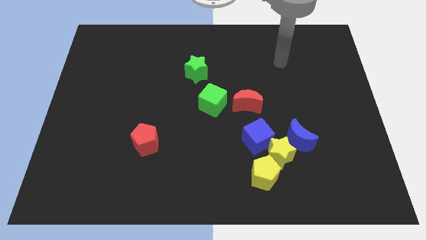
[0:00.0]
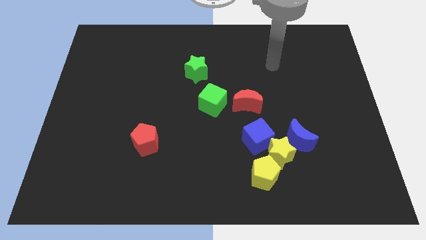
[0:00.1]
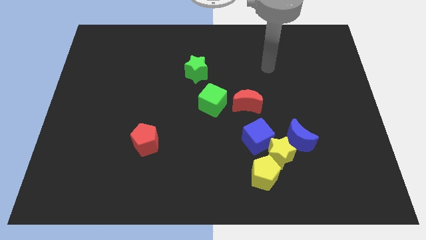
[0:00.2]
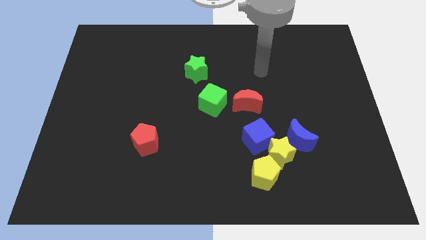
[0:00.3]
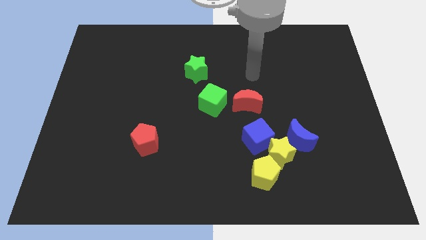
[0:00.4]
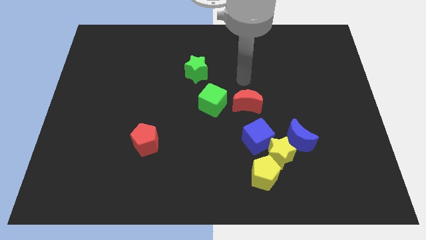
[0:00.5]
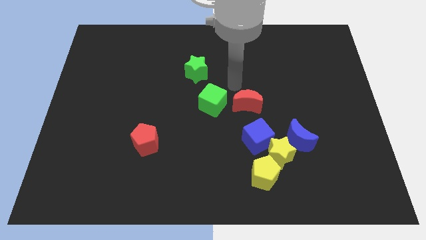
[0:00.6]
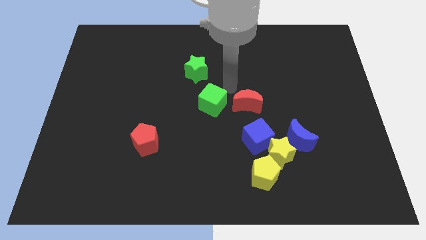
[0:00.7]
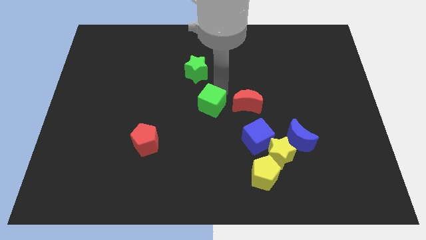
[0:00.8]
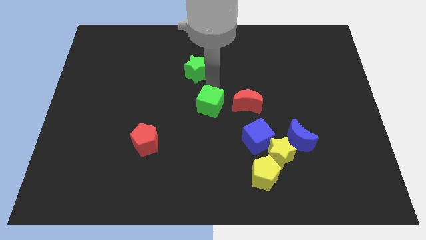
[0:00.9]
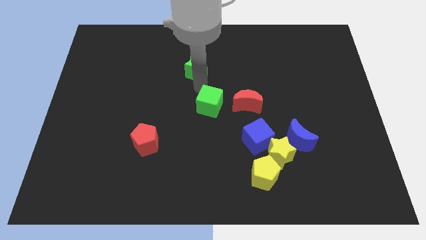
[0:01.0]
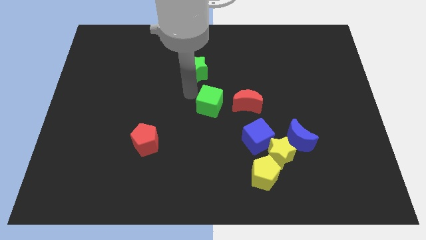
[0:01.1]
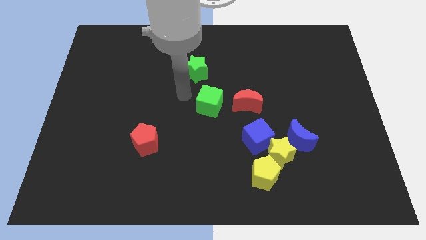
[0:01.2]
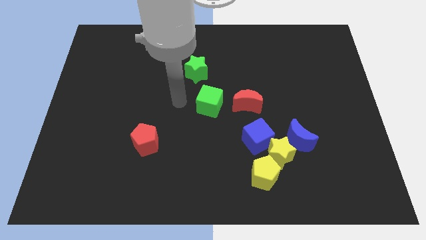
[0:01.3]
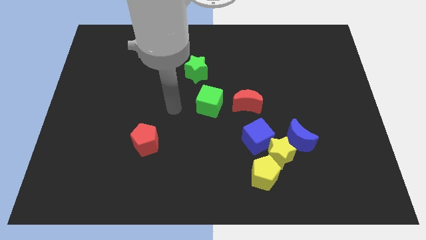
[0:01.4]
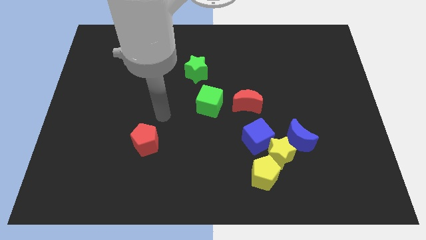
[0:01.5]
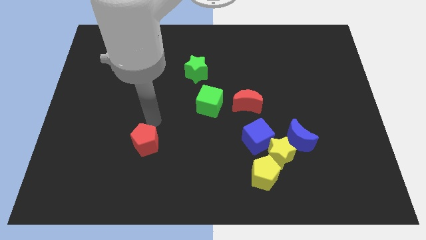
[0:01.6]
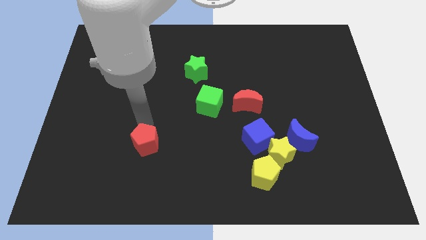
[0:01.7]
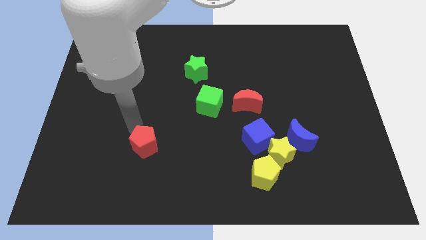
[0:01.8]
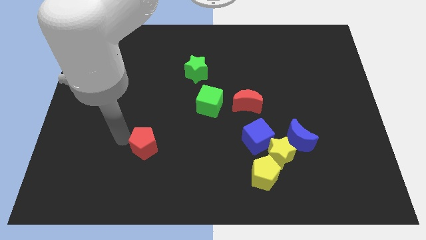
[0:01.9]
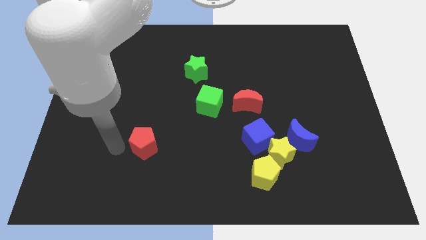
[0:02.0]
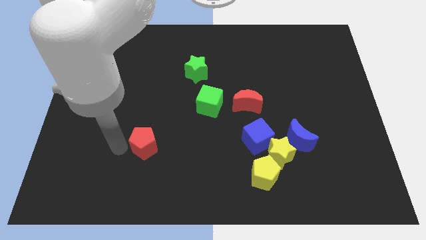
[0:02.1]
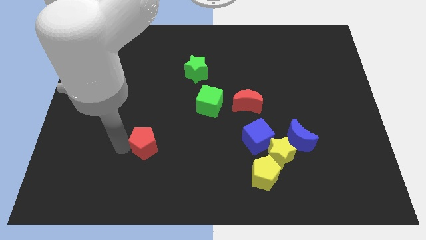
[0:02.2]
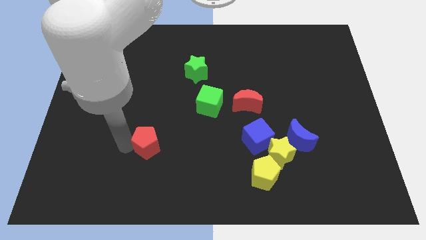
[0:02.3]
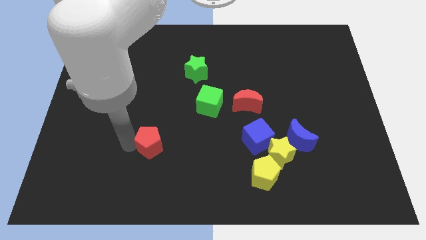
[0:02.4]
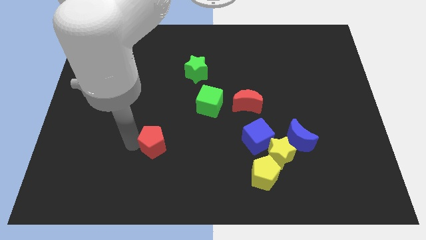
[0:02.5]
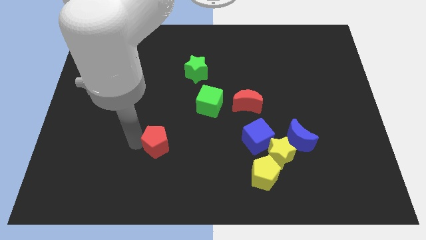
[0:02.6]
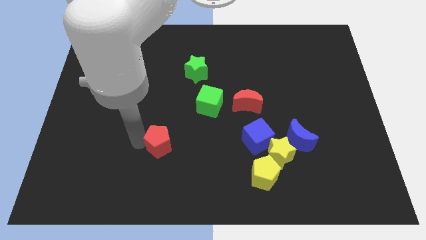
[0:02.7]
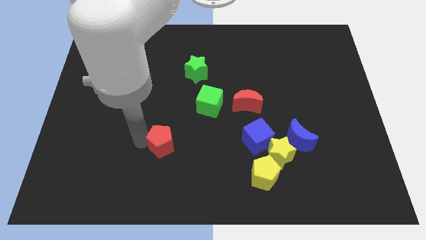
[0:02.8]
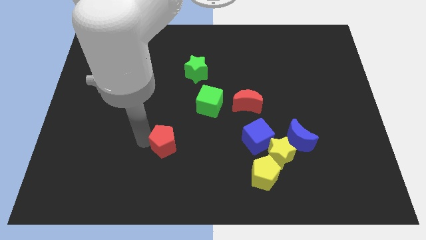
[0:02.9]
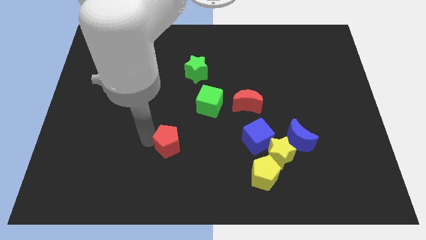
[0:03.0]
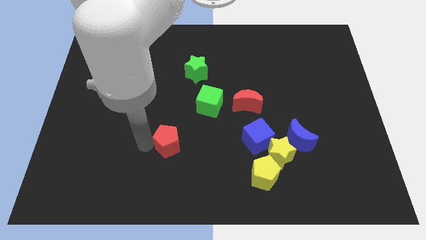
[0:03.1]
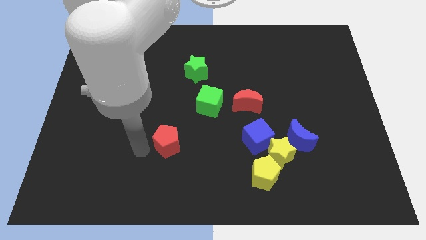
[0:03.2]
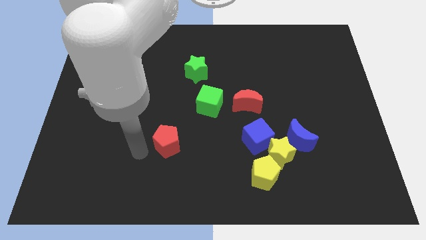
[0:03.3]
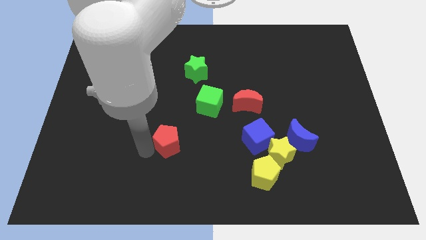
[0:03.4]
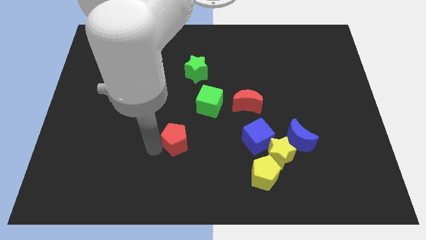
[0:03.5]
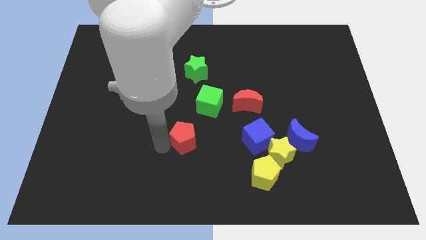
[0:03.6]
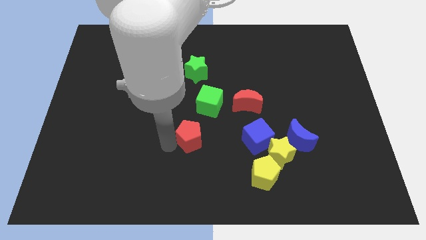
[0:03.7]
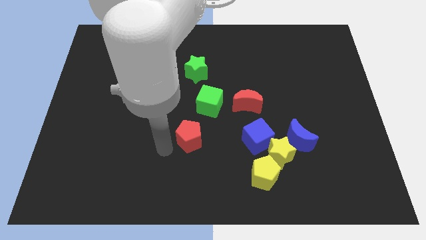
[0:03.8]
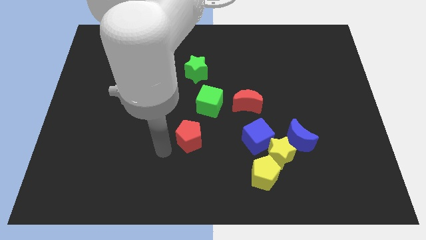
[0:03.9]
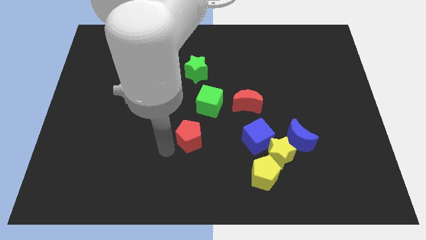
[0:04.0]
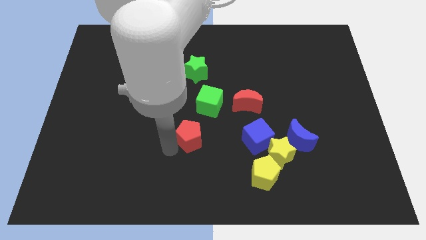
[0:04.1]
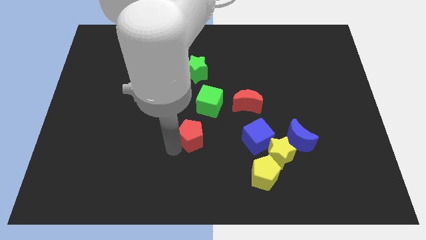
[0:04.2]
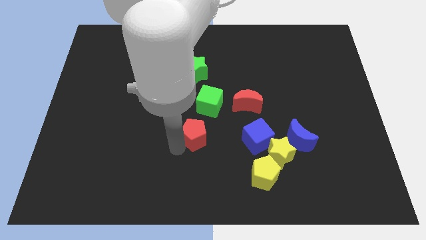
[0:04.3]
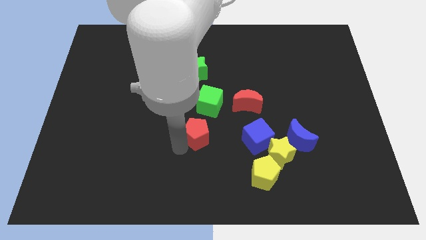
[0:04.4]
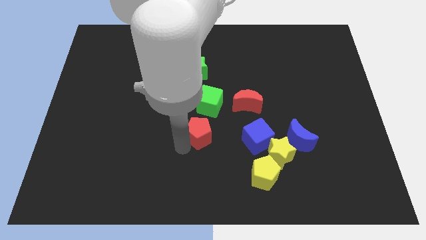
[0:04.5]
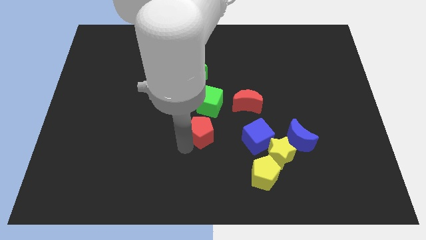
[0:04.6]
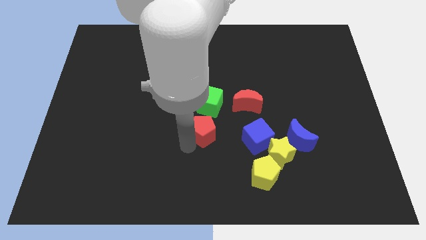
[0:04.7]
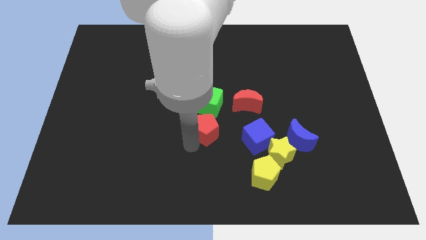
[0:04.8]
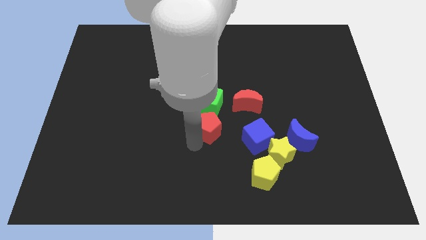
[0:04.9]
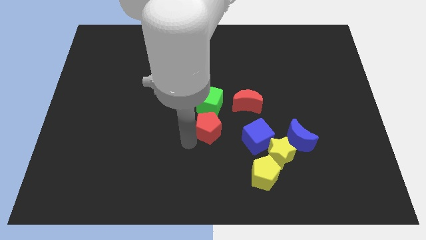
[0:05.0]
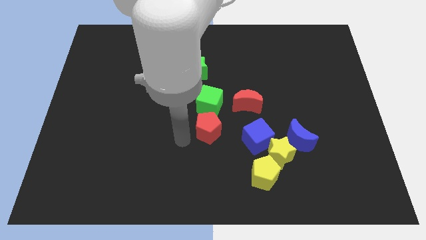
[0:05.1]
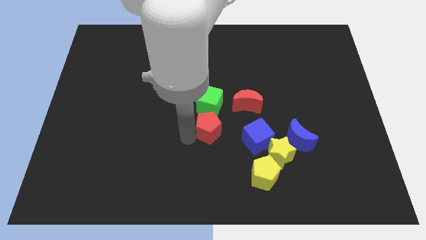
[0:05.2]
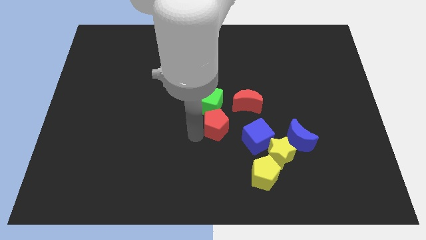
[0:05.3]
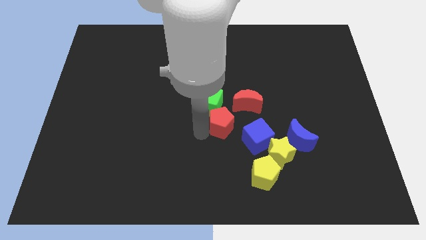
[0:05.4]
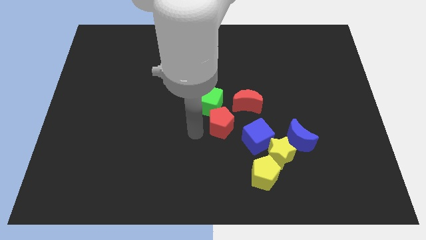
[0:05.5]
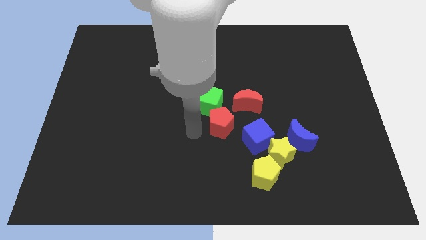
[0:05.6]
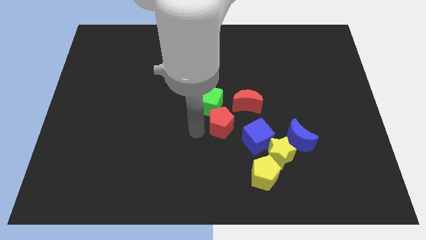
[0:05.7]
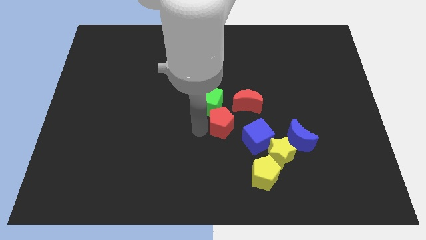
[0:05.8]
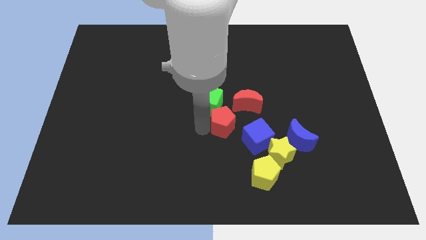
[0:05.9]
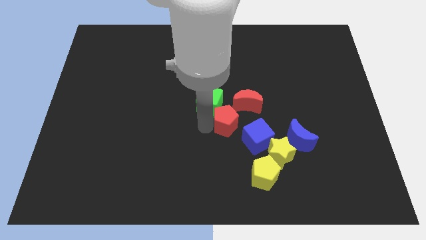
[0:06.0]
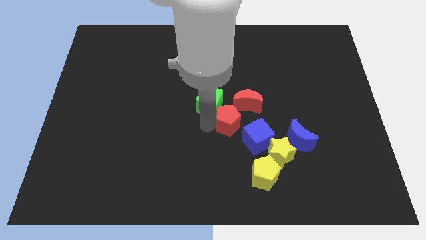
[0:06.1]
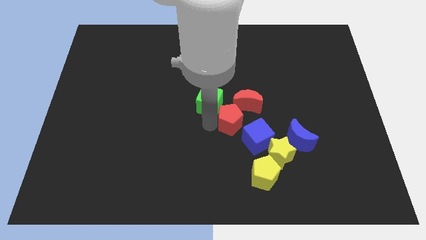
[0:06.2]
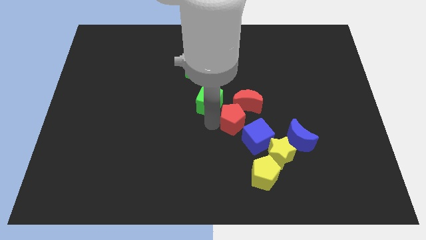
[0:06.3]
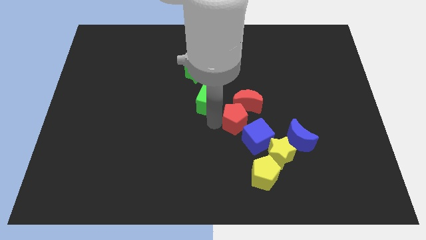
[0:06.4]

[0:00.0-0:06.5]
put the red pentagon to the top side of the blue cube
